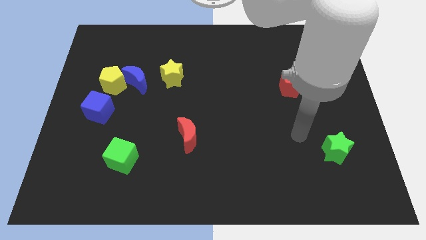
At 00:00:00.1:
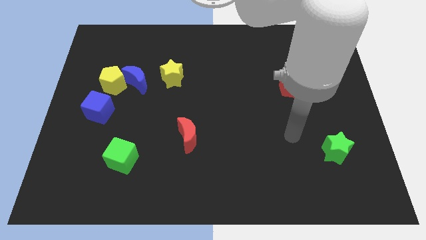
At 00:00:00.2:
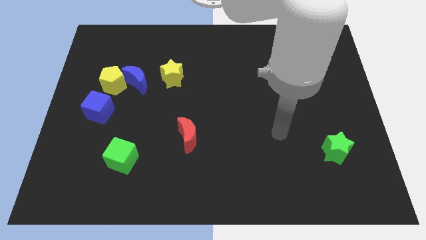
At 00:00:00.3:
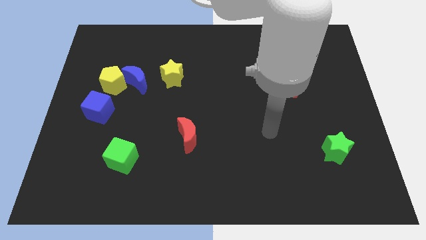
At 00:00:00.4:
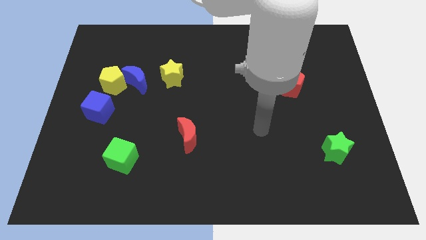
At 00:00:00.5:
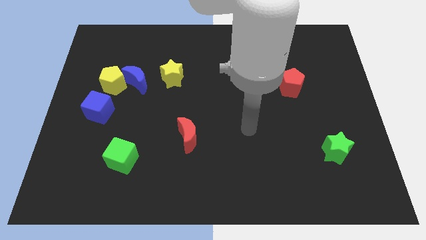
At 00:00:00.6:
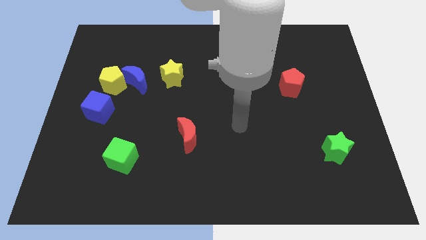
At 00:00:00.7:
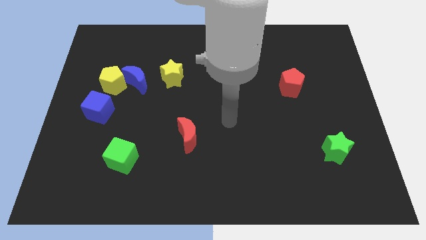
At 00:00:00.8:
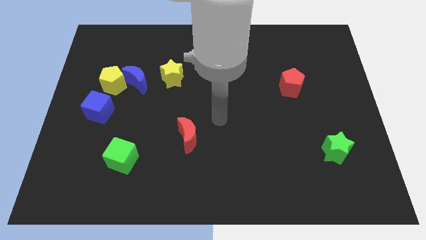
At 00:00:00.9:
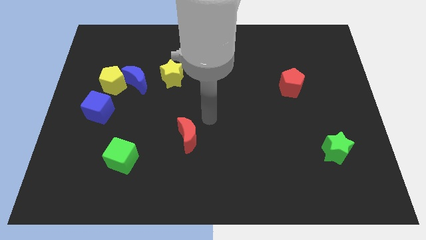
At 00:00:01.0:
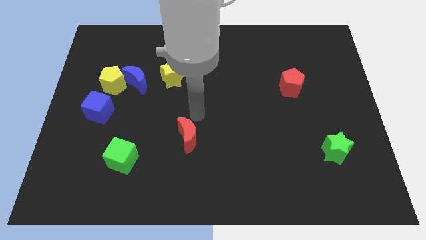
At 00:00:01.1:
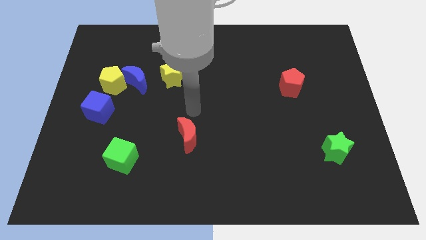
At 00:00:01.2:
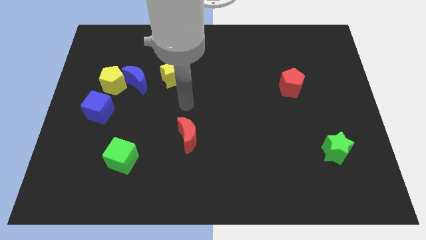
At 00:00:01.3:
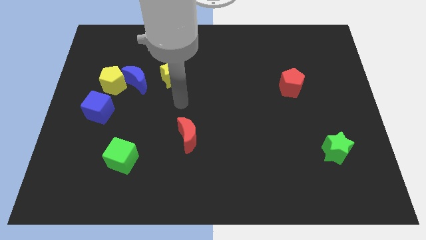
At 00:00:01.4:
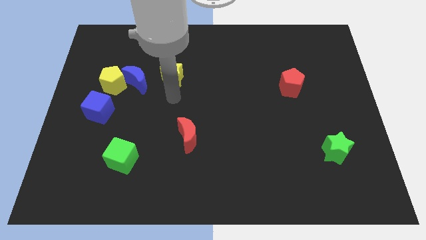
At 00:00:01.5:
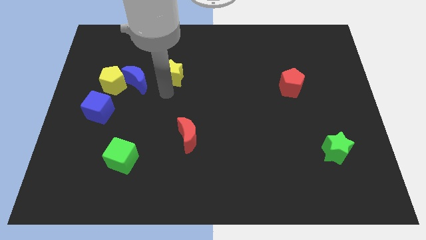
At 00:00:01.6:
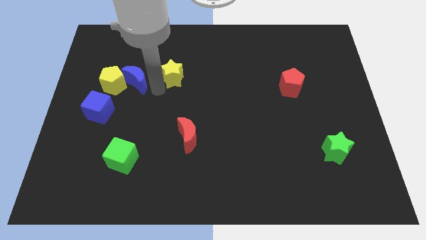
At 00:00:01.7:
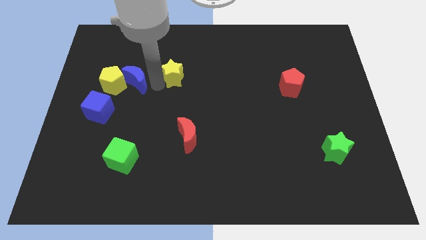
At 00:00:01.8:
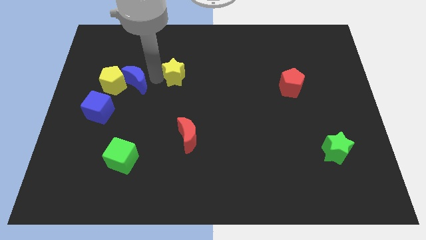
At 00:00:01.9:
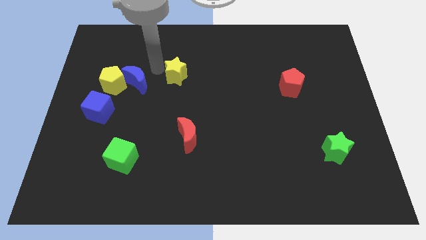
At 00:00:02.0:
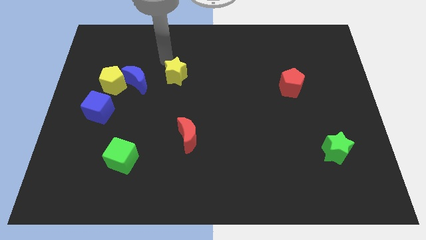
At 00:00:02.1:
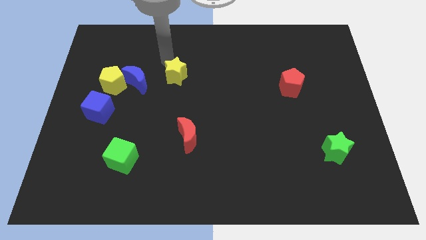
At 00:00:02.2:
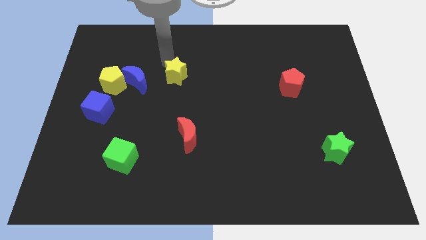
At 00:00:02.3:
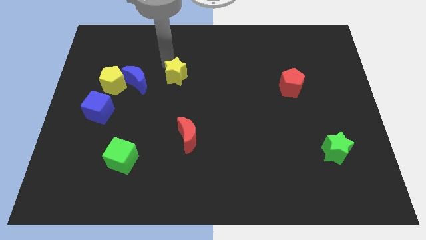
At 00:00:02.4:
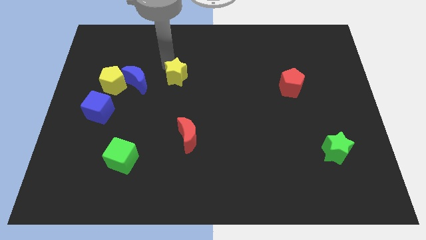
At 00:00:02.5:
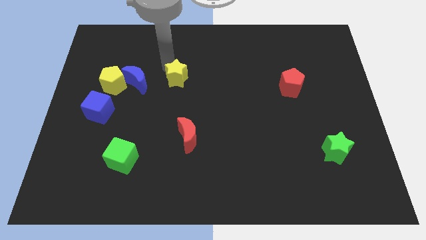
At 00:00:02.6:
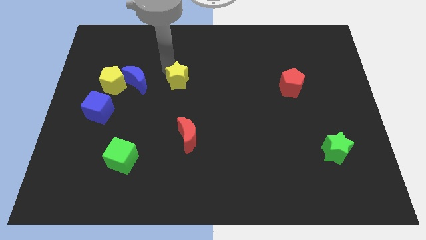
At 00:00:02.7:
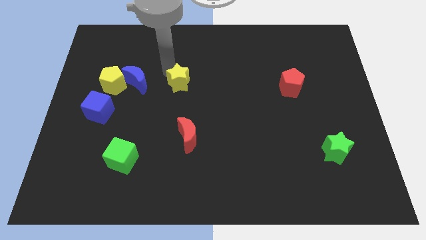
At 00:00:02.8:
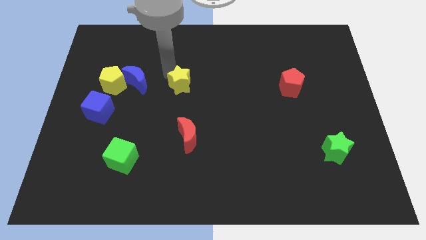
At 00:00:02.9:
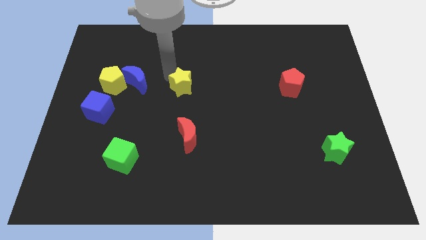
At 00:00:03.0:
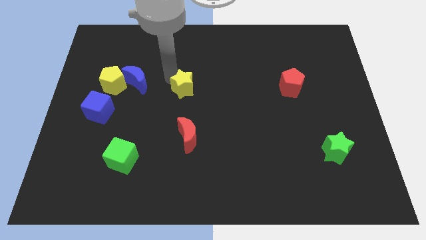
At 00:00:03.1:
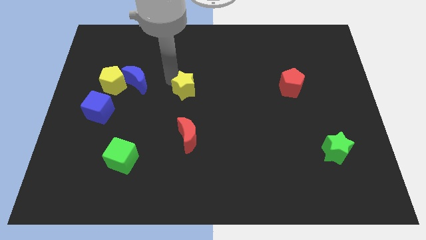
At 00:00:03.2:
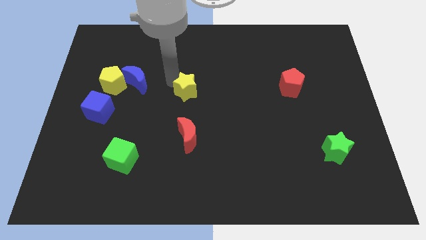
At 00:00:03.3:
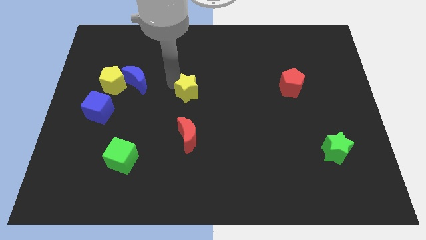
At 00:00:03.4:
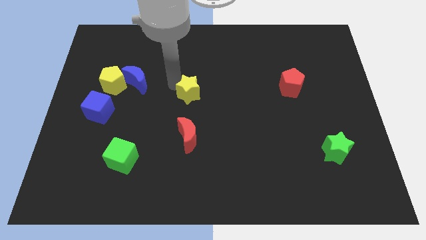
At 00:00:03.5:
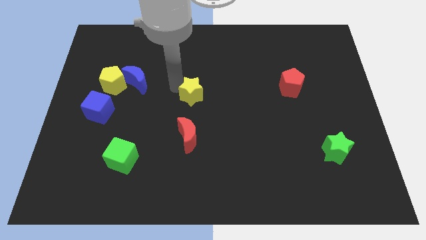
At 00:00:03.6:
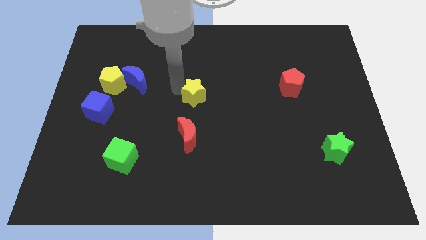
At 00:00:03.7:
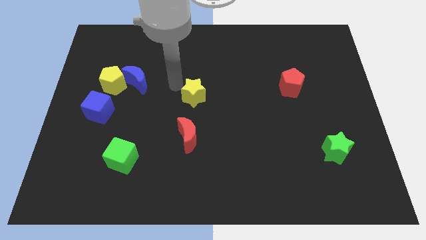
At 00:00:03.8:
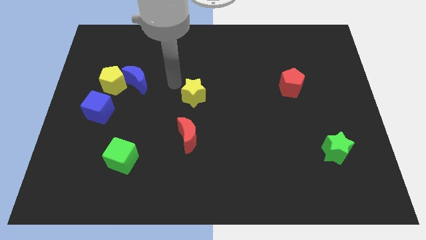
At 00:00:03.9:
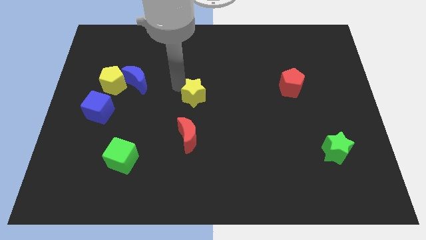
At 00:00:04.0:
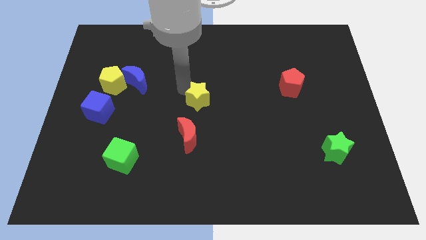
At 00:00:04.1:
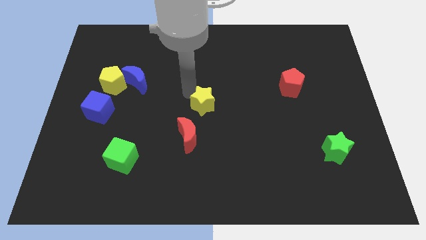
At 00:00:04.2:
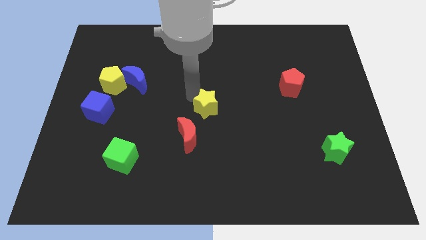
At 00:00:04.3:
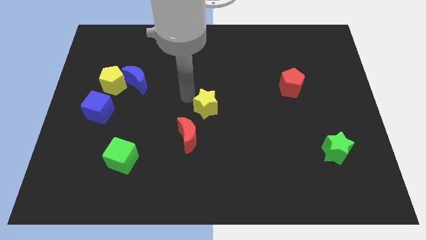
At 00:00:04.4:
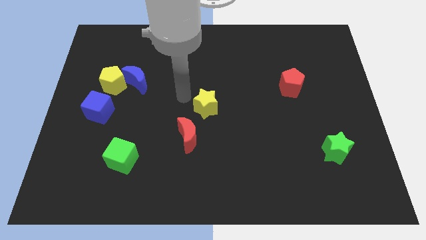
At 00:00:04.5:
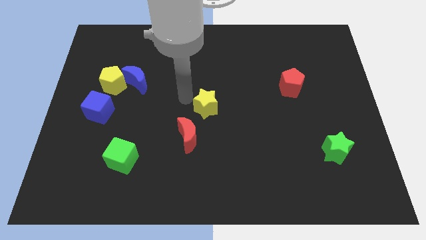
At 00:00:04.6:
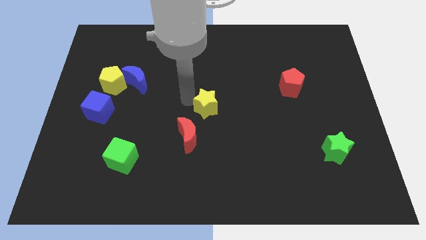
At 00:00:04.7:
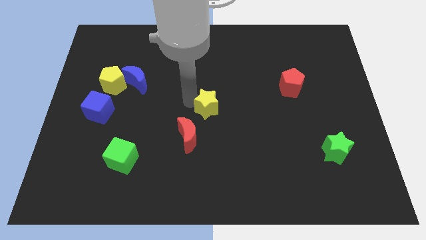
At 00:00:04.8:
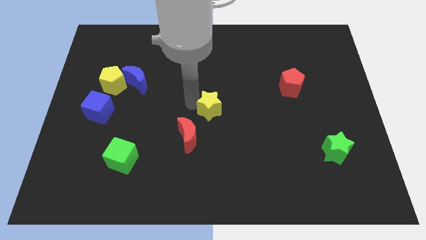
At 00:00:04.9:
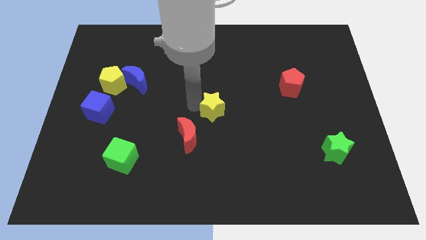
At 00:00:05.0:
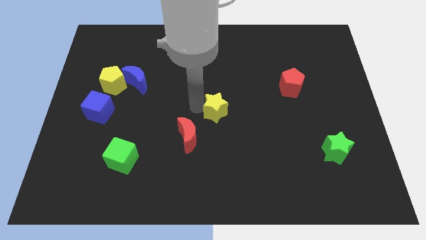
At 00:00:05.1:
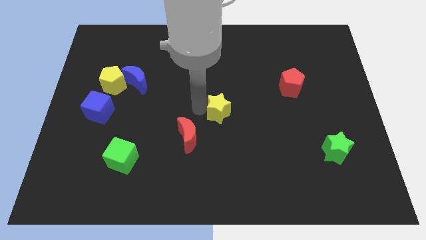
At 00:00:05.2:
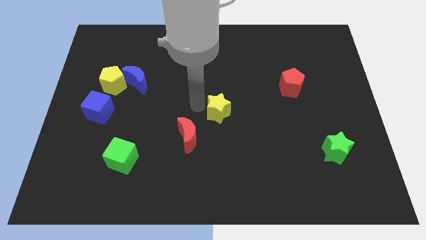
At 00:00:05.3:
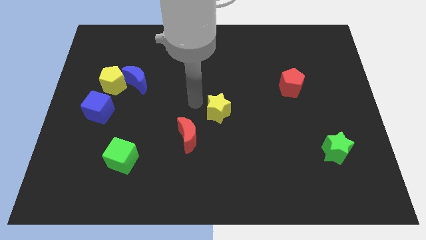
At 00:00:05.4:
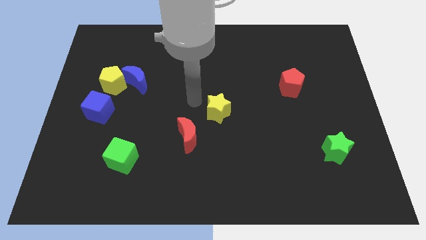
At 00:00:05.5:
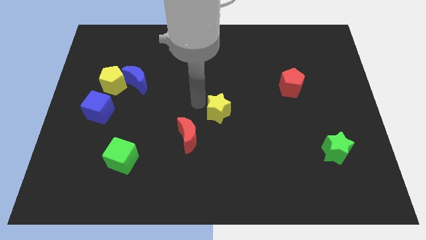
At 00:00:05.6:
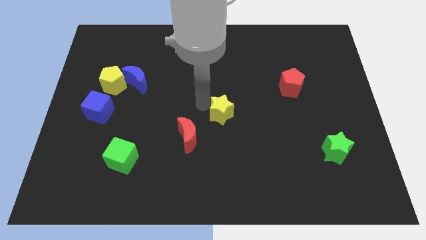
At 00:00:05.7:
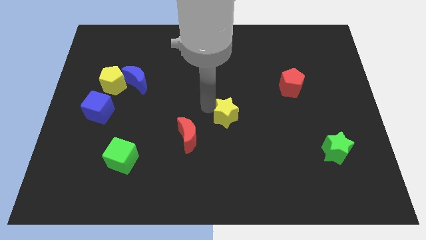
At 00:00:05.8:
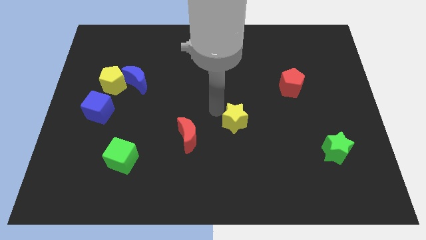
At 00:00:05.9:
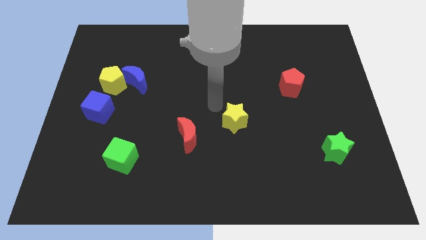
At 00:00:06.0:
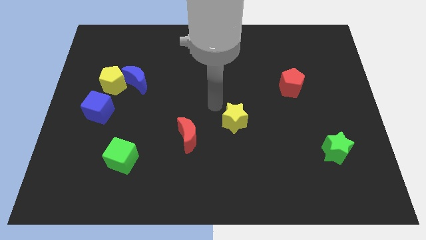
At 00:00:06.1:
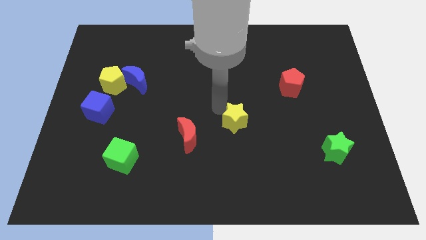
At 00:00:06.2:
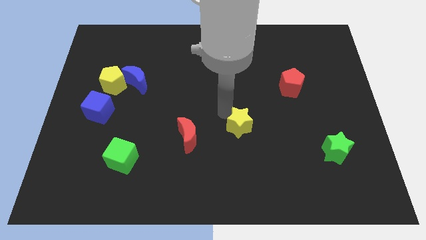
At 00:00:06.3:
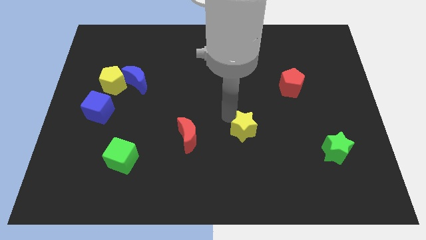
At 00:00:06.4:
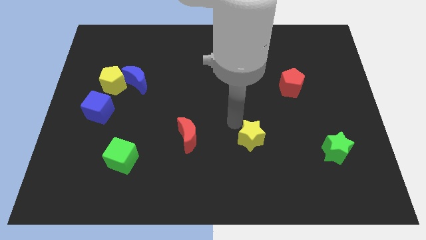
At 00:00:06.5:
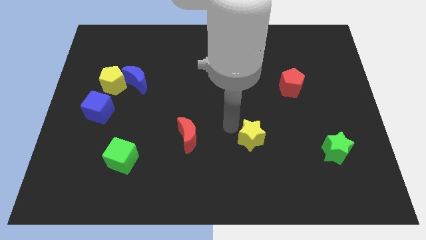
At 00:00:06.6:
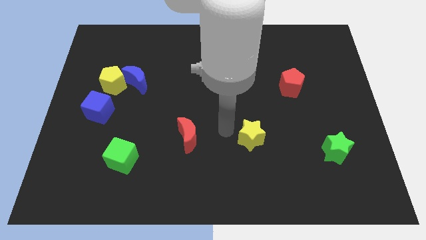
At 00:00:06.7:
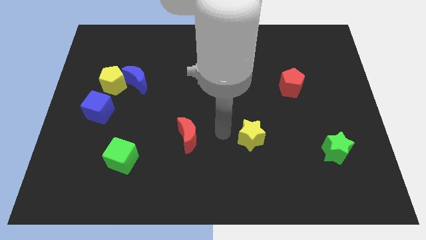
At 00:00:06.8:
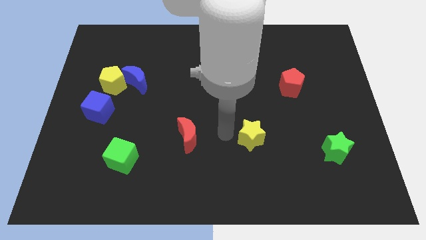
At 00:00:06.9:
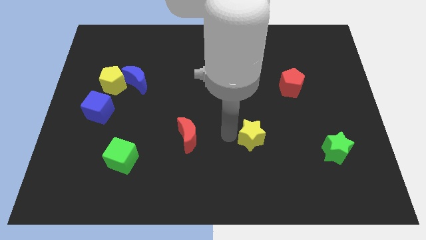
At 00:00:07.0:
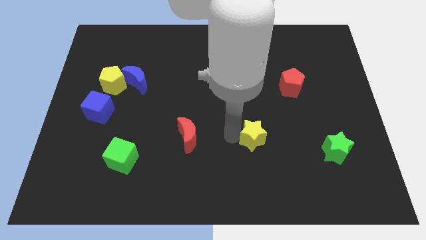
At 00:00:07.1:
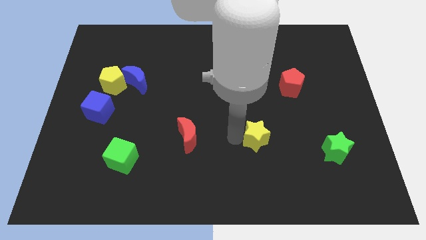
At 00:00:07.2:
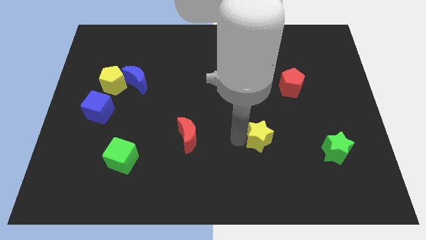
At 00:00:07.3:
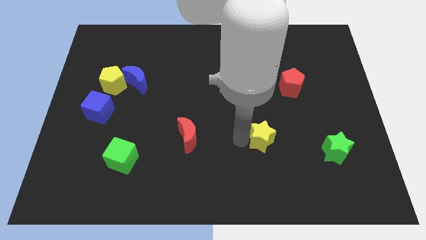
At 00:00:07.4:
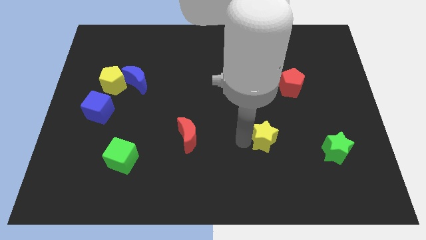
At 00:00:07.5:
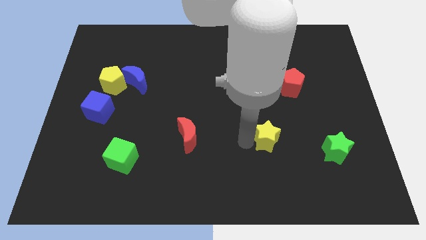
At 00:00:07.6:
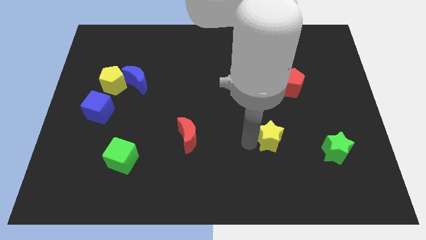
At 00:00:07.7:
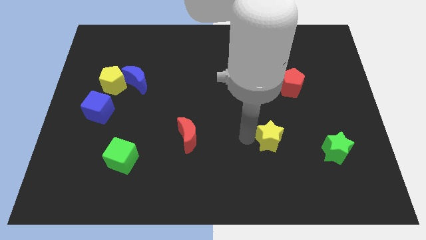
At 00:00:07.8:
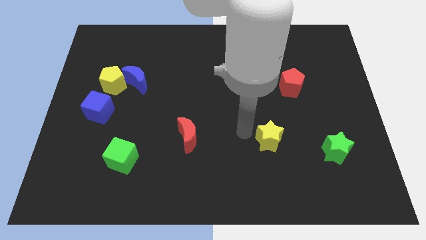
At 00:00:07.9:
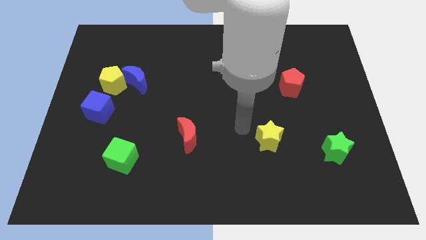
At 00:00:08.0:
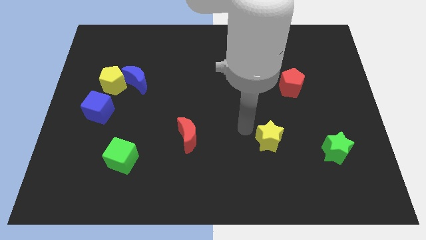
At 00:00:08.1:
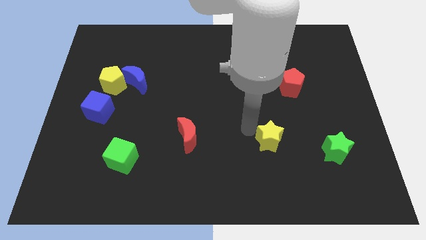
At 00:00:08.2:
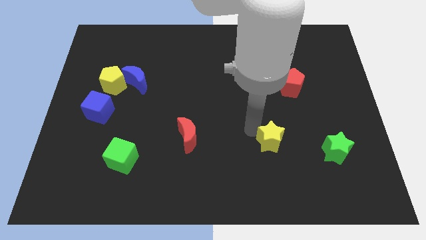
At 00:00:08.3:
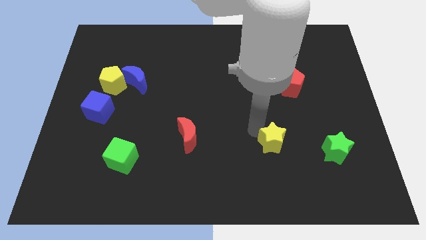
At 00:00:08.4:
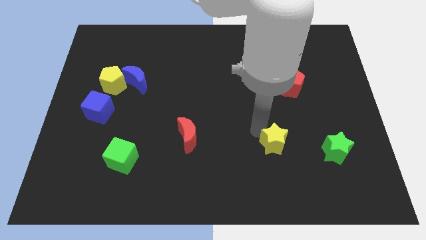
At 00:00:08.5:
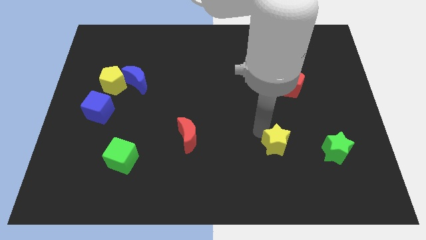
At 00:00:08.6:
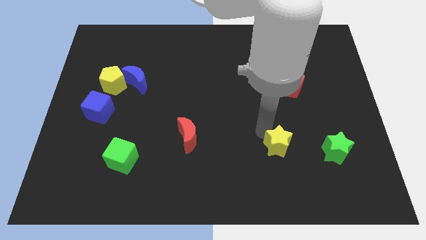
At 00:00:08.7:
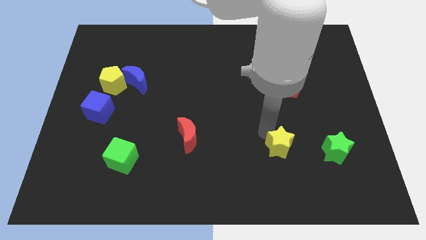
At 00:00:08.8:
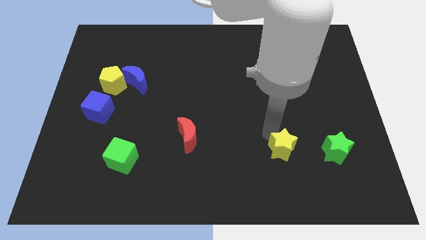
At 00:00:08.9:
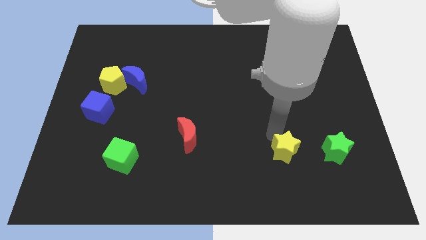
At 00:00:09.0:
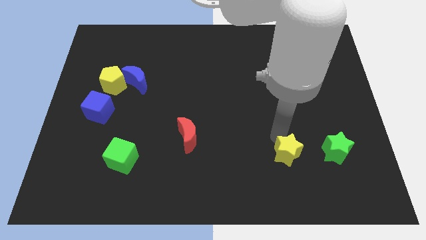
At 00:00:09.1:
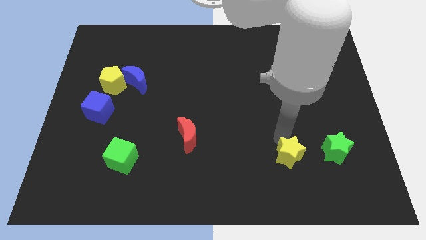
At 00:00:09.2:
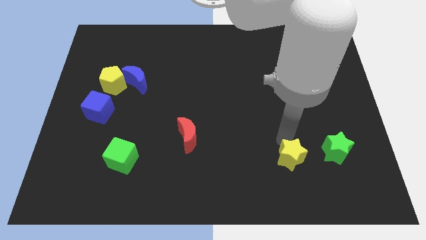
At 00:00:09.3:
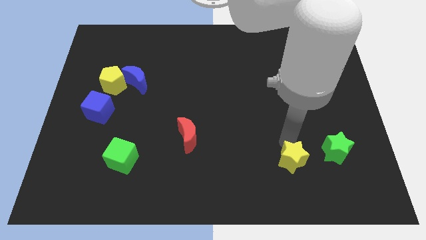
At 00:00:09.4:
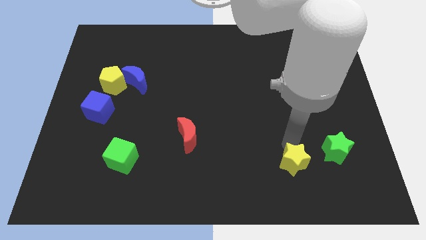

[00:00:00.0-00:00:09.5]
push the yellow star diagonally down and to the left of the green star
